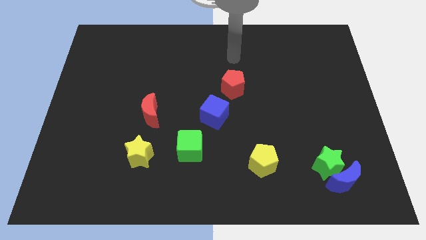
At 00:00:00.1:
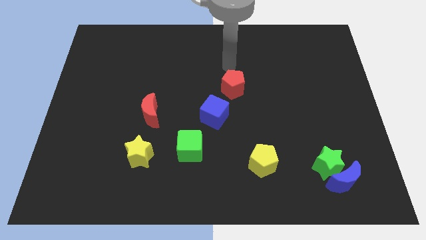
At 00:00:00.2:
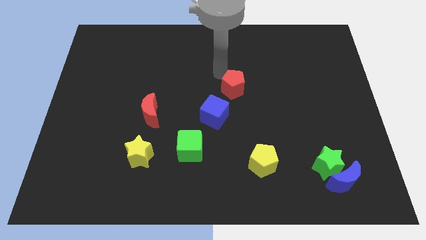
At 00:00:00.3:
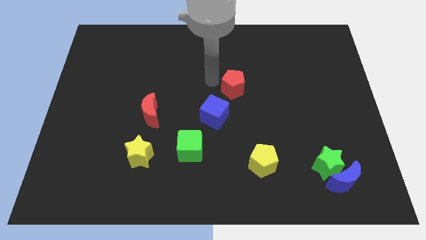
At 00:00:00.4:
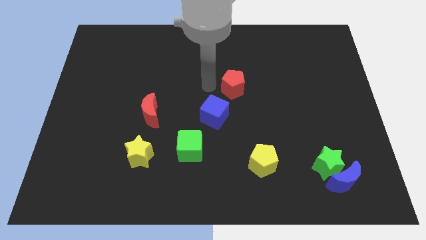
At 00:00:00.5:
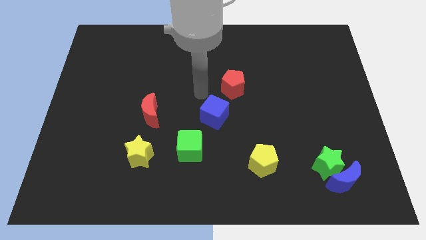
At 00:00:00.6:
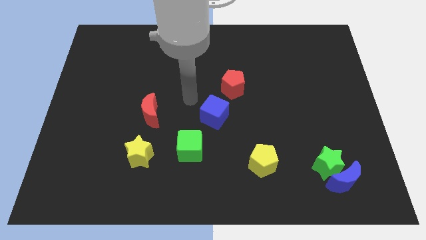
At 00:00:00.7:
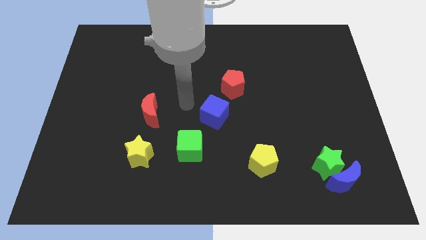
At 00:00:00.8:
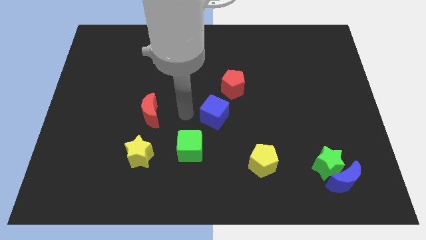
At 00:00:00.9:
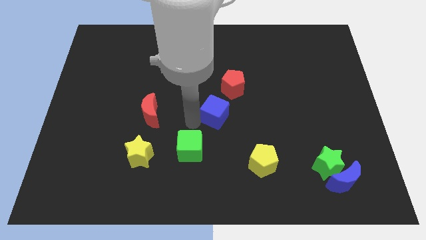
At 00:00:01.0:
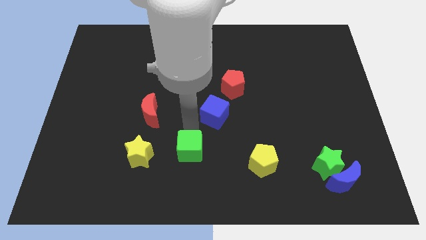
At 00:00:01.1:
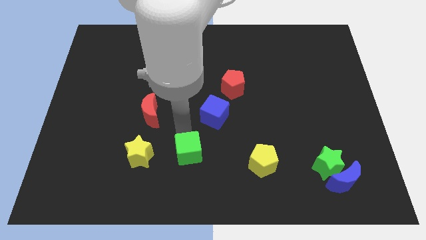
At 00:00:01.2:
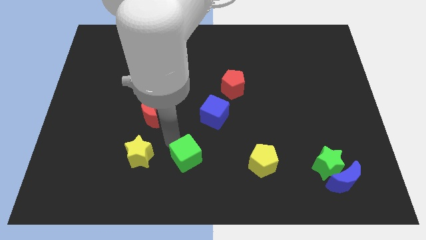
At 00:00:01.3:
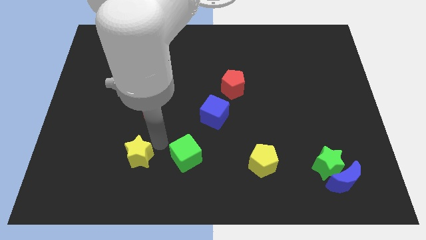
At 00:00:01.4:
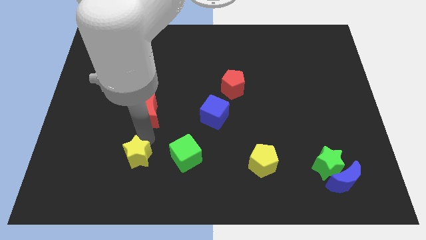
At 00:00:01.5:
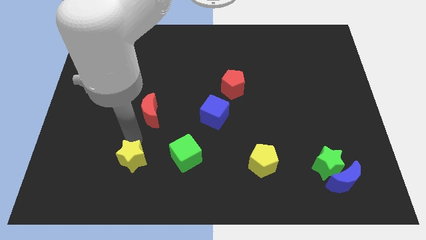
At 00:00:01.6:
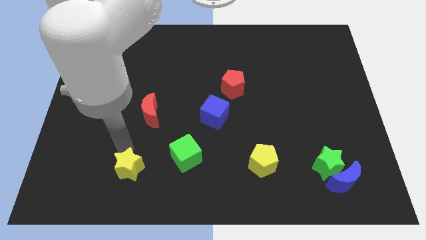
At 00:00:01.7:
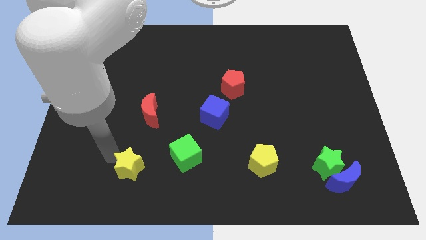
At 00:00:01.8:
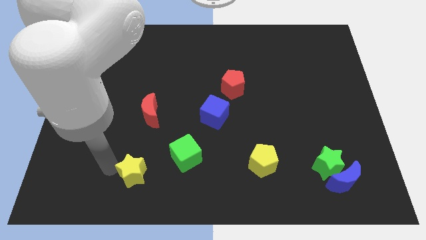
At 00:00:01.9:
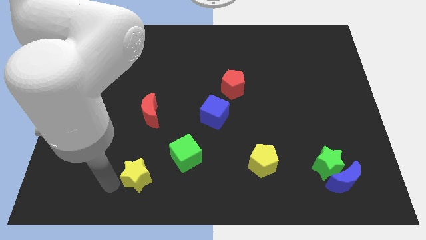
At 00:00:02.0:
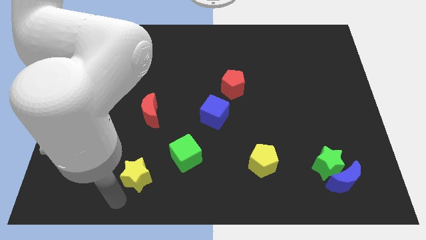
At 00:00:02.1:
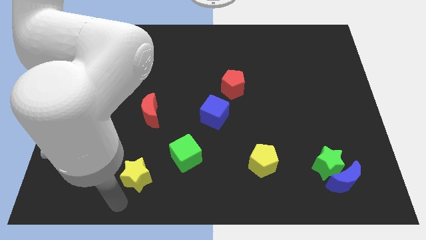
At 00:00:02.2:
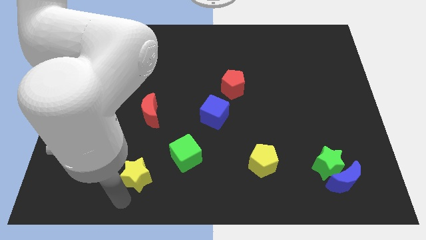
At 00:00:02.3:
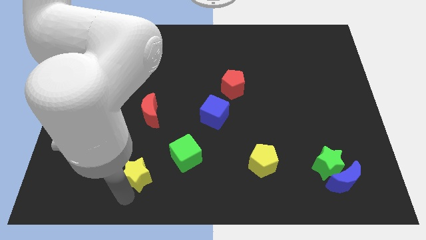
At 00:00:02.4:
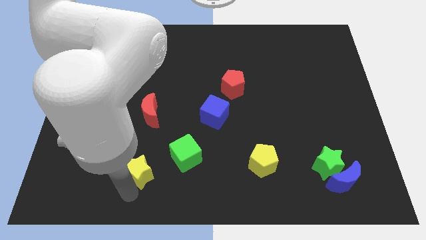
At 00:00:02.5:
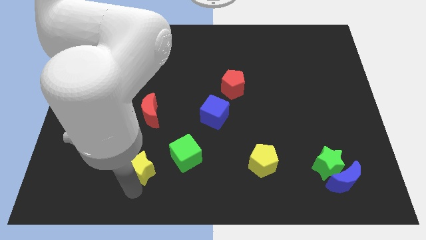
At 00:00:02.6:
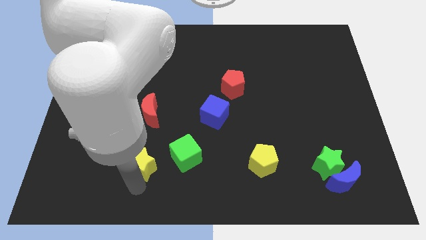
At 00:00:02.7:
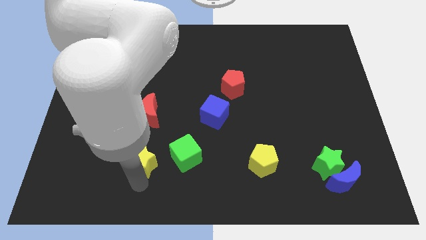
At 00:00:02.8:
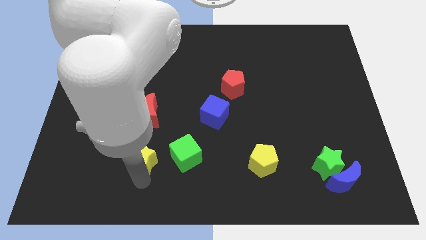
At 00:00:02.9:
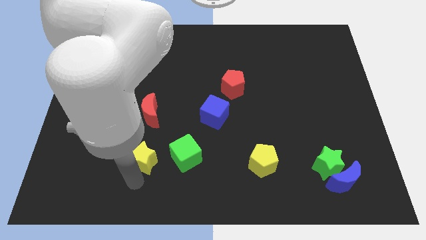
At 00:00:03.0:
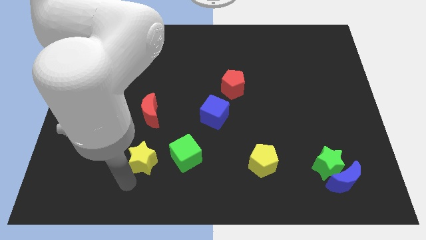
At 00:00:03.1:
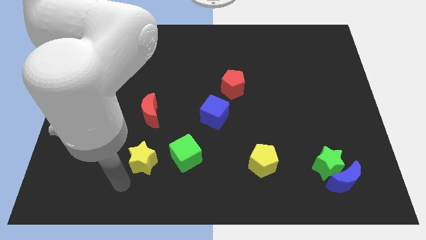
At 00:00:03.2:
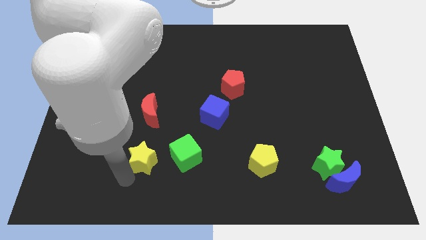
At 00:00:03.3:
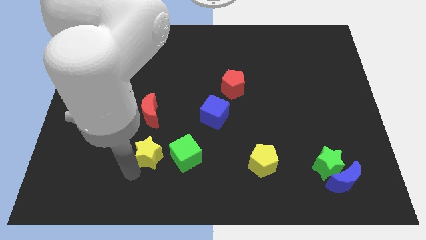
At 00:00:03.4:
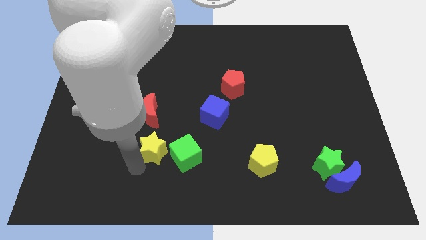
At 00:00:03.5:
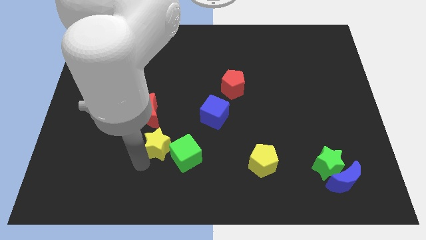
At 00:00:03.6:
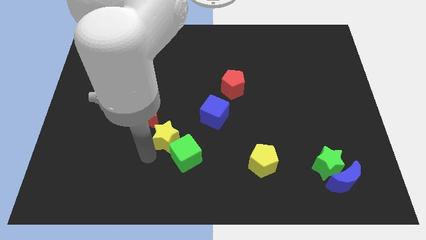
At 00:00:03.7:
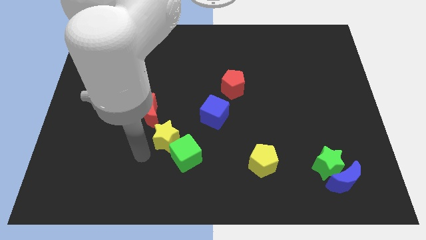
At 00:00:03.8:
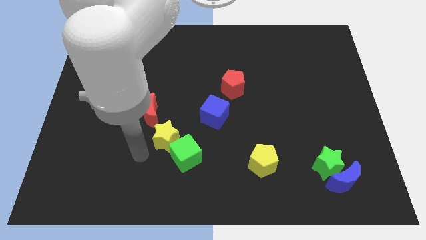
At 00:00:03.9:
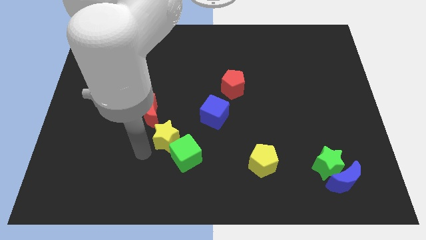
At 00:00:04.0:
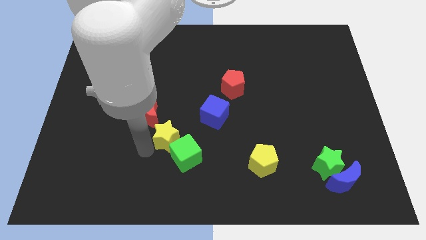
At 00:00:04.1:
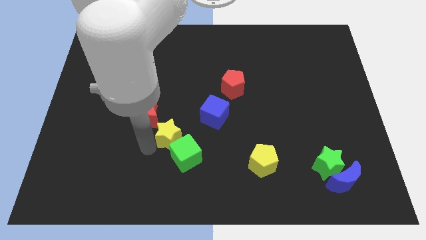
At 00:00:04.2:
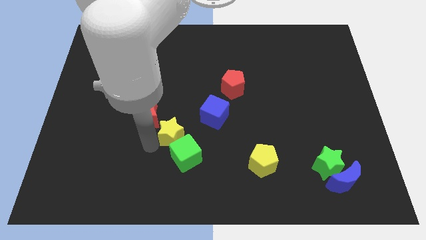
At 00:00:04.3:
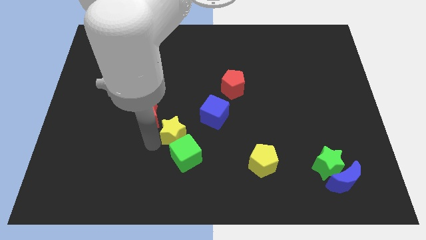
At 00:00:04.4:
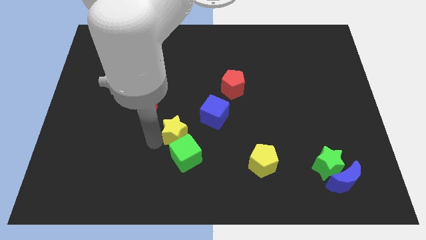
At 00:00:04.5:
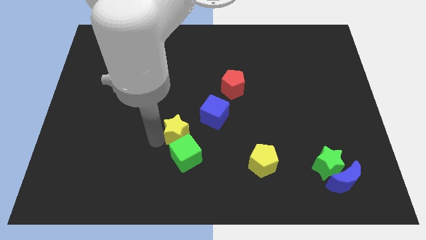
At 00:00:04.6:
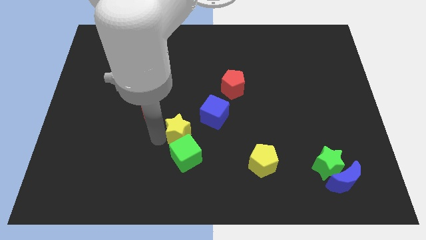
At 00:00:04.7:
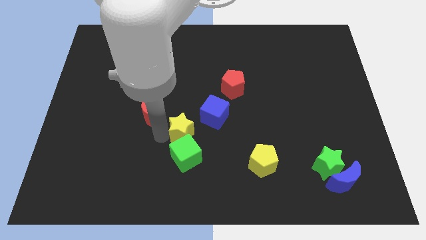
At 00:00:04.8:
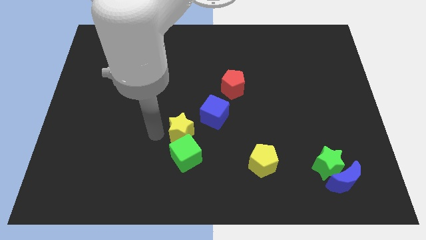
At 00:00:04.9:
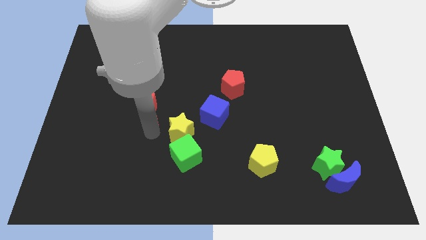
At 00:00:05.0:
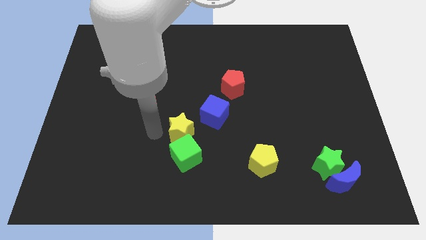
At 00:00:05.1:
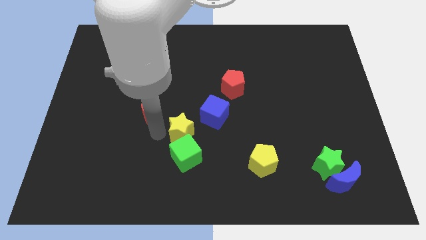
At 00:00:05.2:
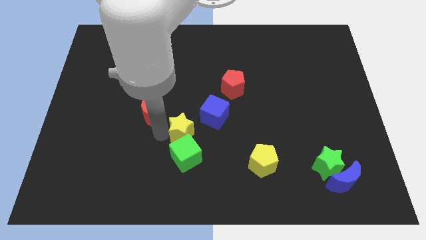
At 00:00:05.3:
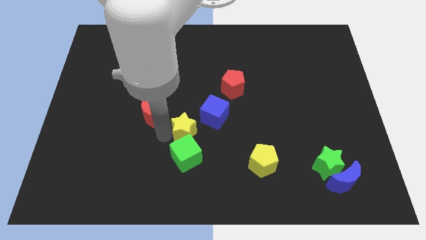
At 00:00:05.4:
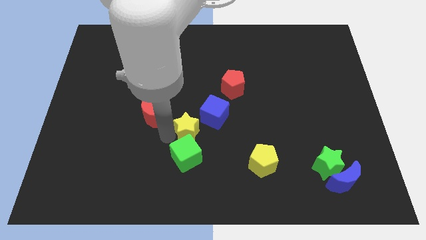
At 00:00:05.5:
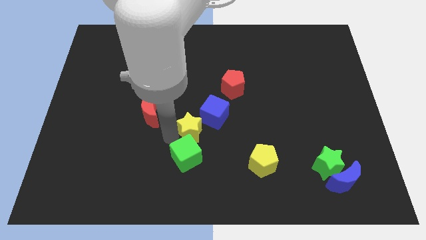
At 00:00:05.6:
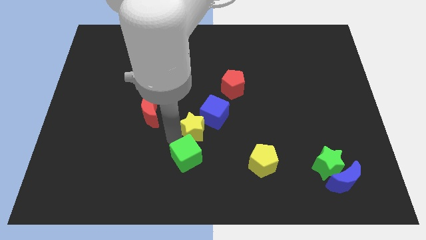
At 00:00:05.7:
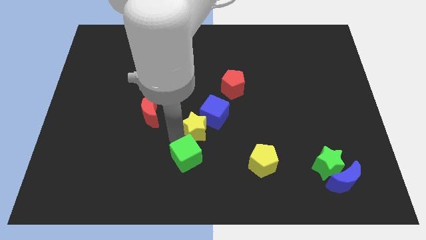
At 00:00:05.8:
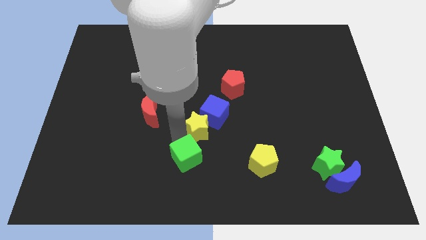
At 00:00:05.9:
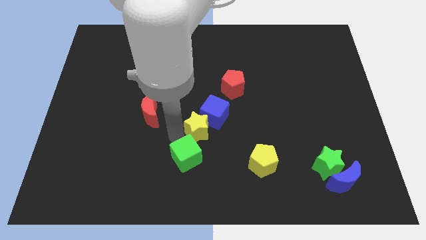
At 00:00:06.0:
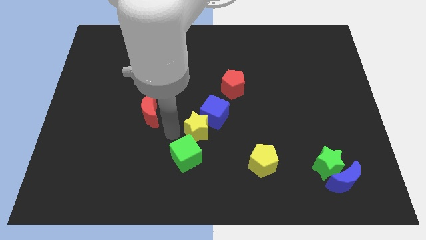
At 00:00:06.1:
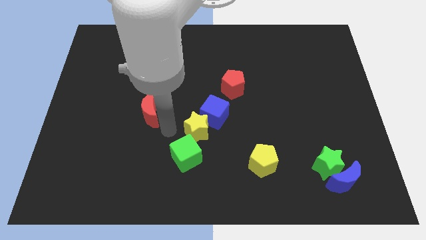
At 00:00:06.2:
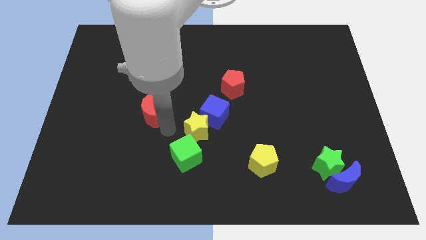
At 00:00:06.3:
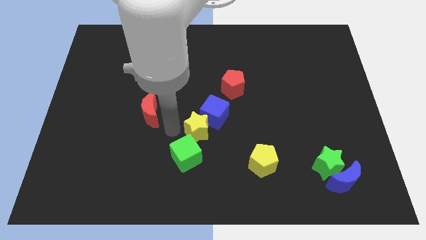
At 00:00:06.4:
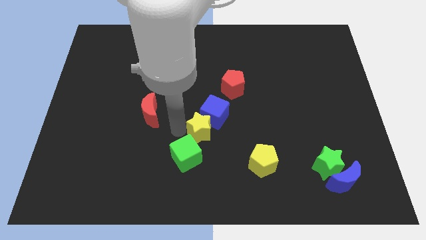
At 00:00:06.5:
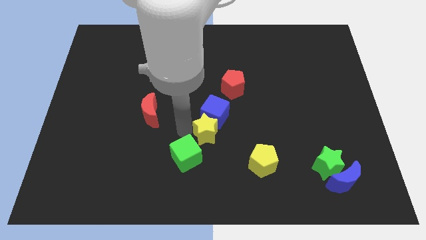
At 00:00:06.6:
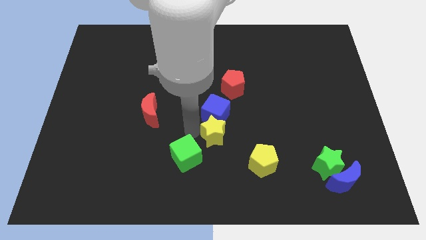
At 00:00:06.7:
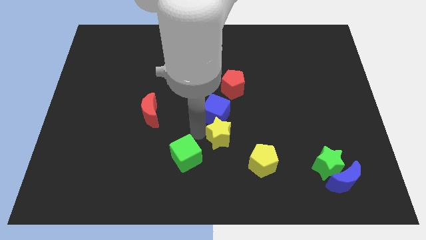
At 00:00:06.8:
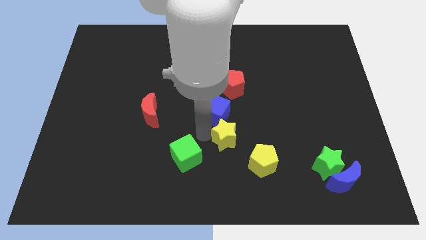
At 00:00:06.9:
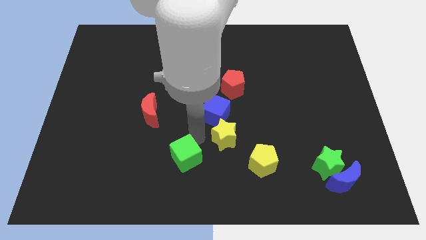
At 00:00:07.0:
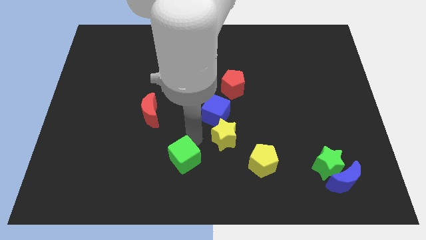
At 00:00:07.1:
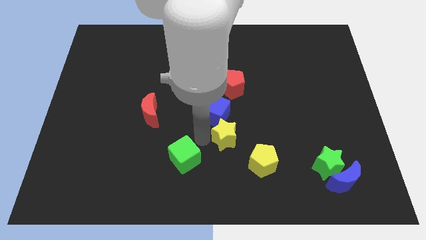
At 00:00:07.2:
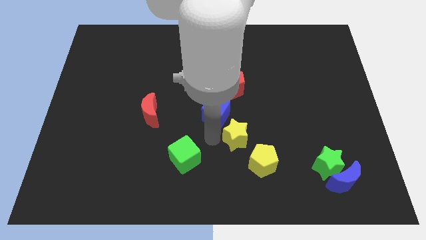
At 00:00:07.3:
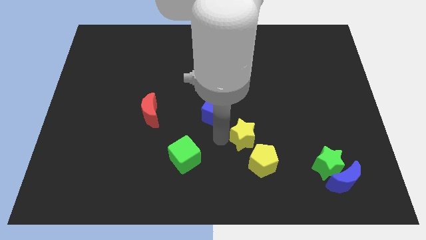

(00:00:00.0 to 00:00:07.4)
push the yellow star right

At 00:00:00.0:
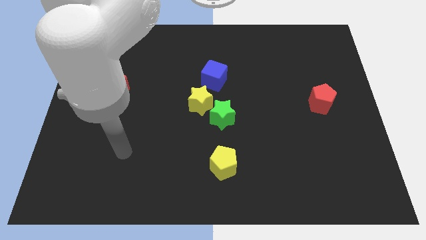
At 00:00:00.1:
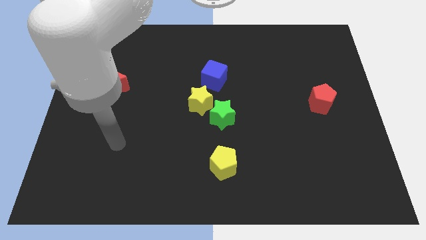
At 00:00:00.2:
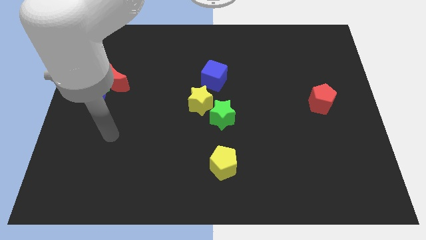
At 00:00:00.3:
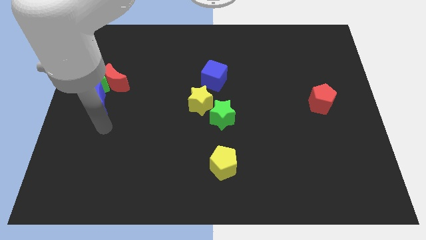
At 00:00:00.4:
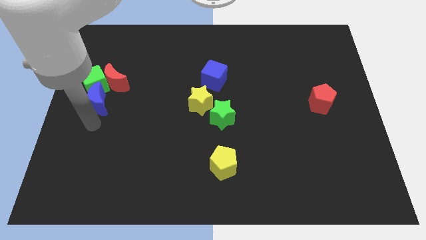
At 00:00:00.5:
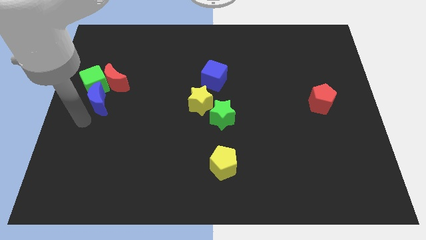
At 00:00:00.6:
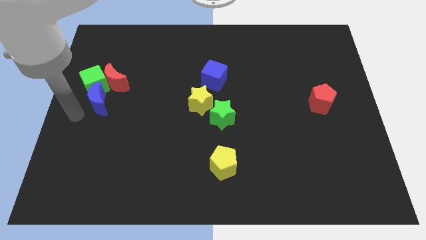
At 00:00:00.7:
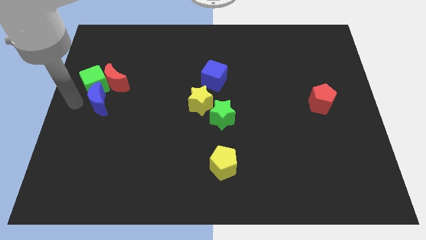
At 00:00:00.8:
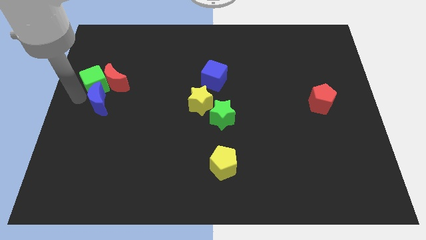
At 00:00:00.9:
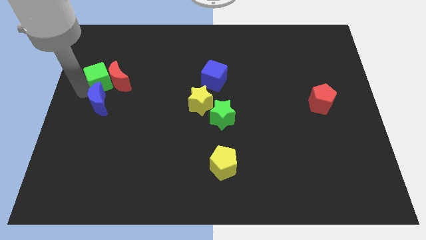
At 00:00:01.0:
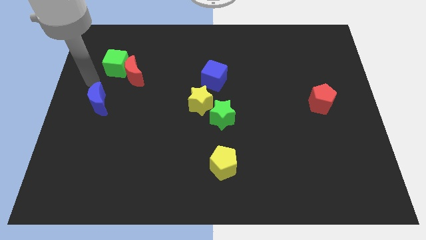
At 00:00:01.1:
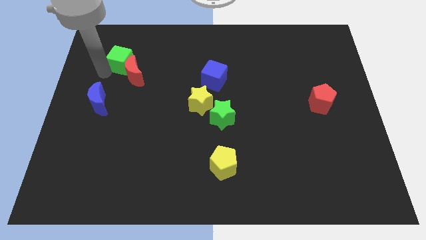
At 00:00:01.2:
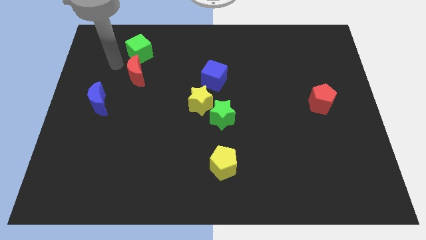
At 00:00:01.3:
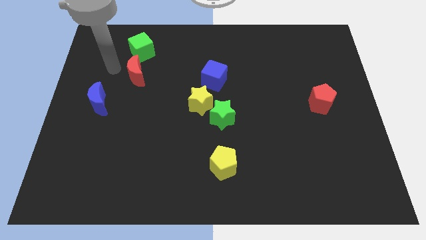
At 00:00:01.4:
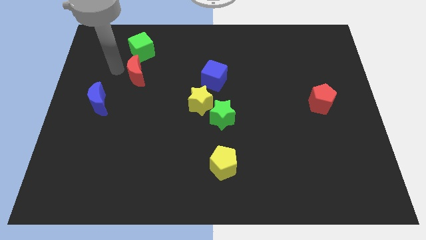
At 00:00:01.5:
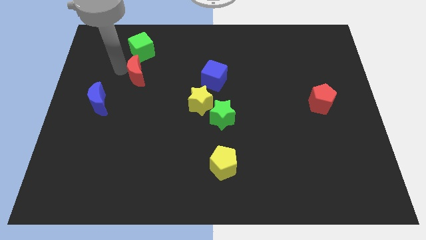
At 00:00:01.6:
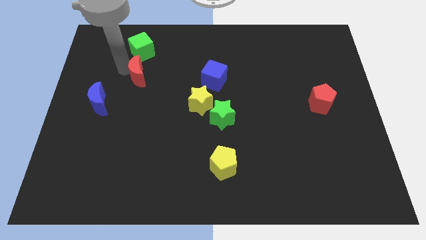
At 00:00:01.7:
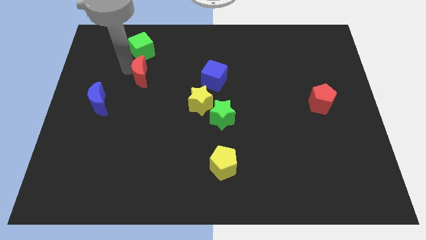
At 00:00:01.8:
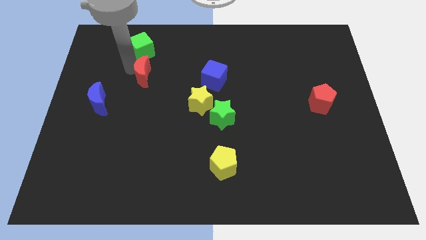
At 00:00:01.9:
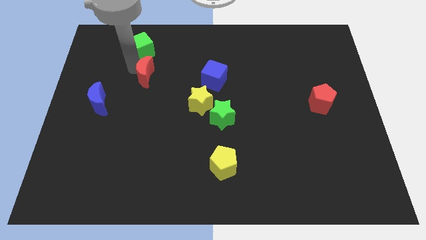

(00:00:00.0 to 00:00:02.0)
slide the red moon to the right slightly
